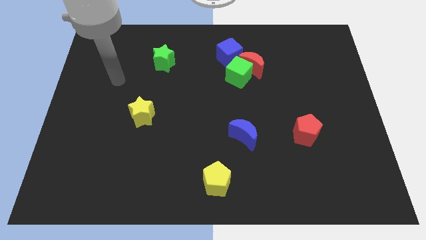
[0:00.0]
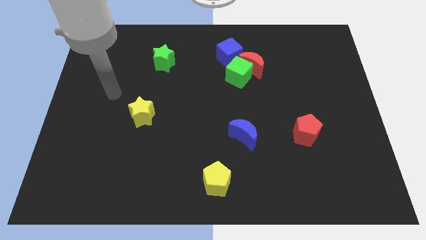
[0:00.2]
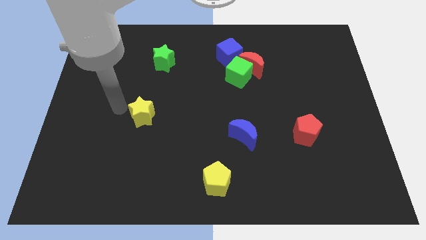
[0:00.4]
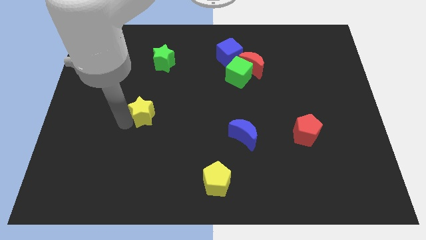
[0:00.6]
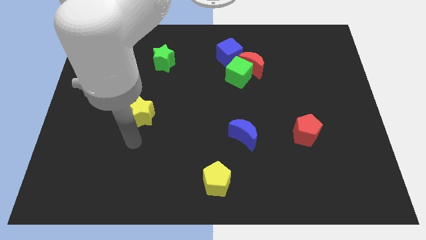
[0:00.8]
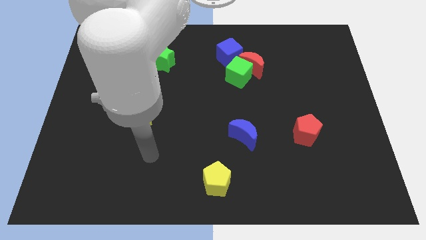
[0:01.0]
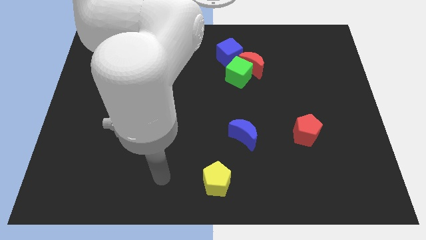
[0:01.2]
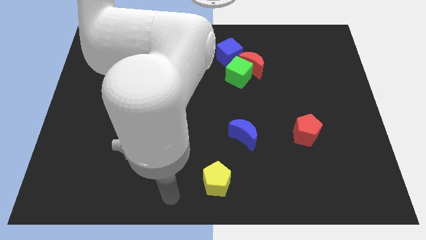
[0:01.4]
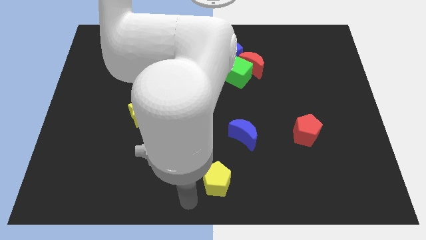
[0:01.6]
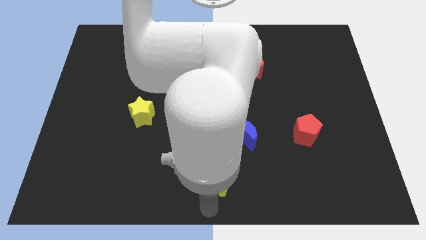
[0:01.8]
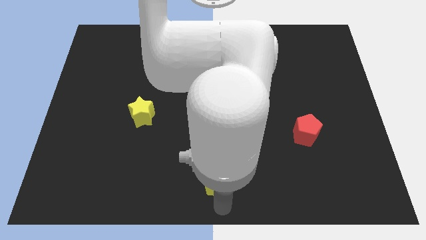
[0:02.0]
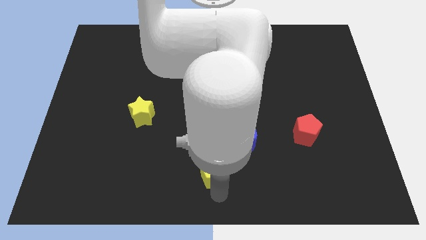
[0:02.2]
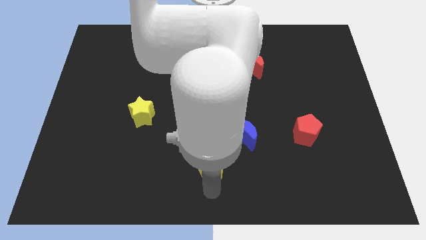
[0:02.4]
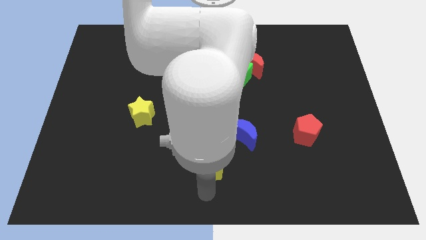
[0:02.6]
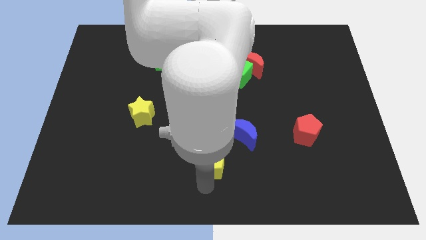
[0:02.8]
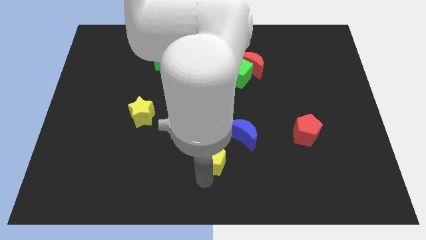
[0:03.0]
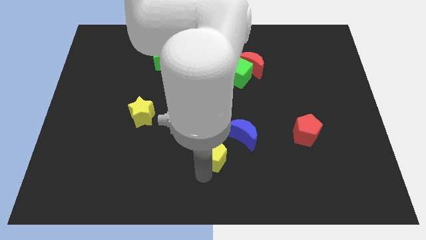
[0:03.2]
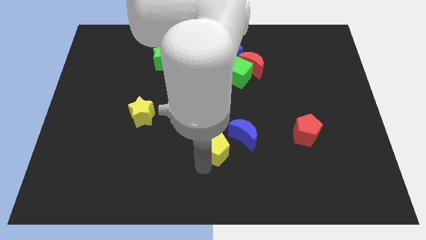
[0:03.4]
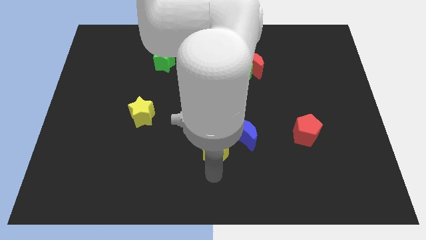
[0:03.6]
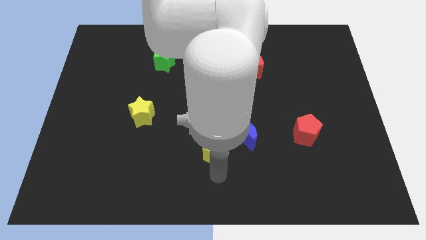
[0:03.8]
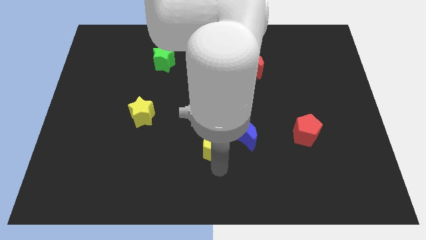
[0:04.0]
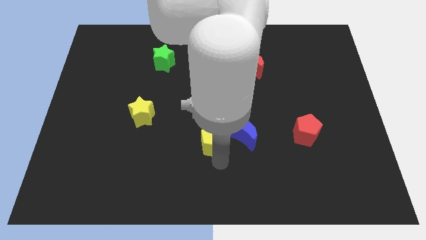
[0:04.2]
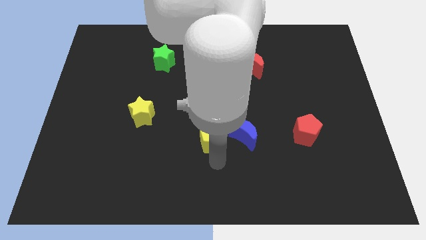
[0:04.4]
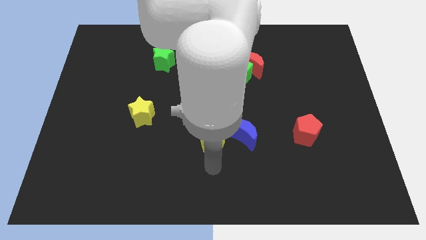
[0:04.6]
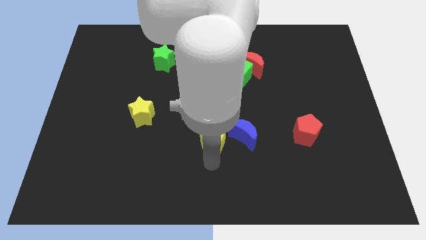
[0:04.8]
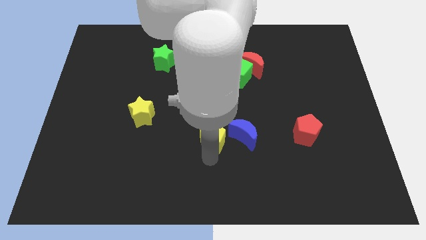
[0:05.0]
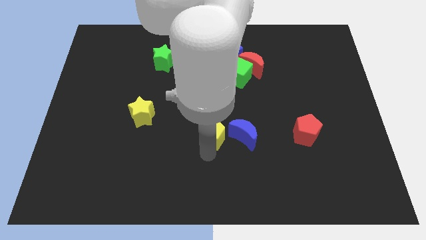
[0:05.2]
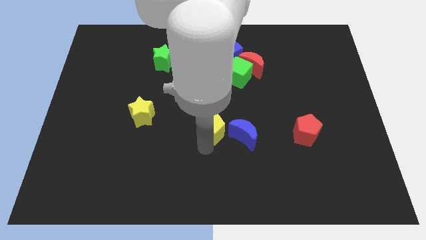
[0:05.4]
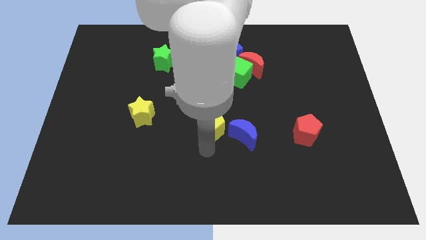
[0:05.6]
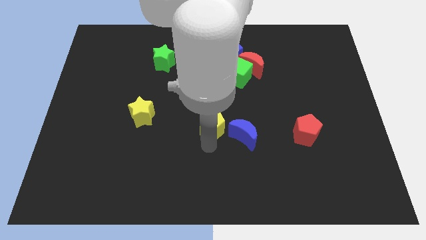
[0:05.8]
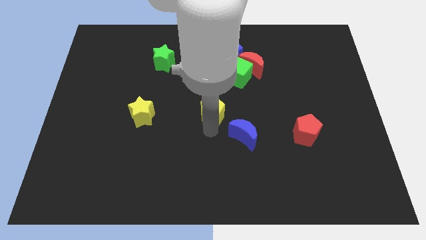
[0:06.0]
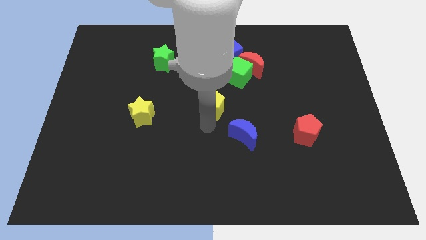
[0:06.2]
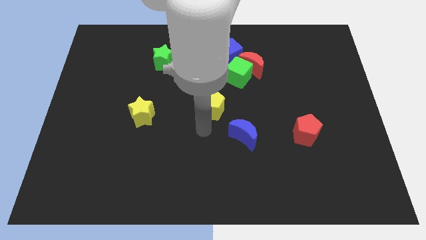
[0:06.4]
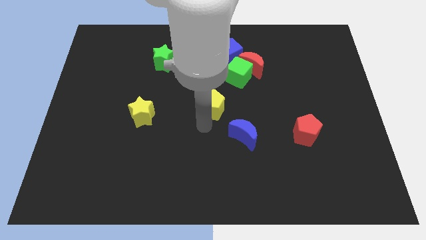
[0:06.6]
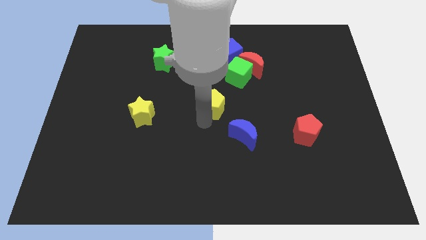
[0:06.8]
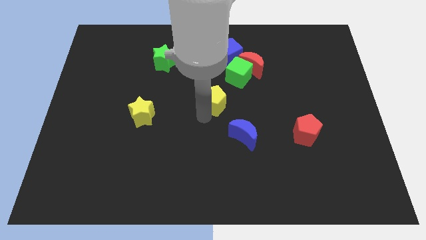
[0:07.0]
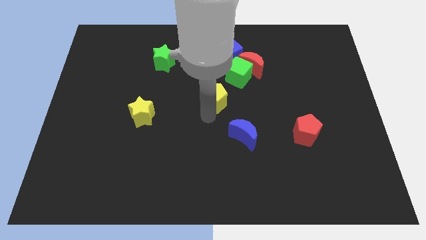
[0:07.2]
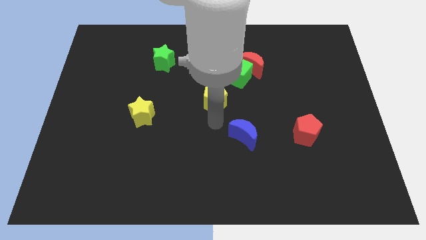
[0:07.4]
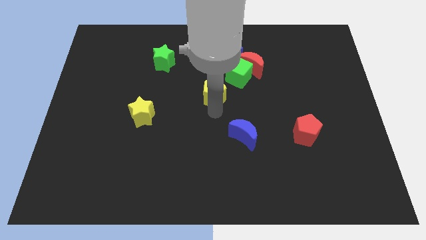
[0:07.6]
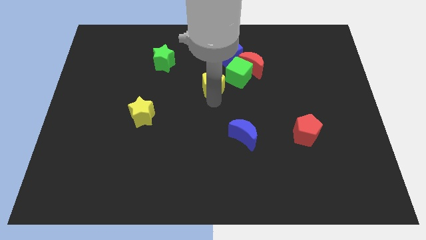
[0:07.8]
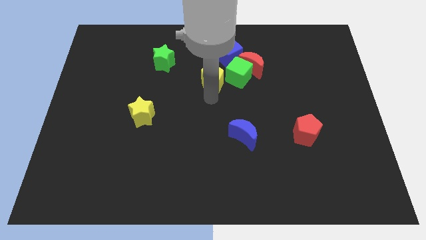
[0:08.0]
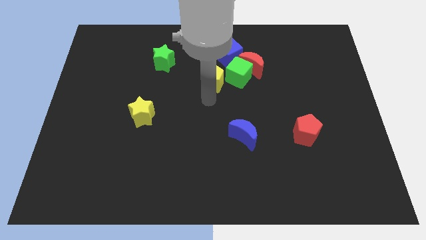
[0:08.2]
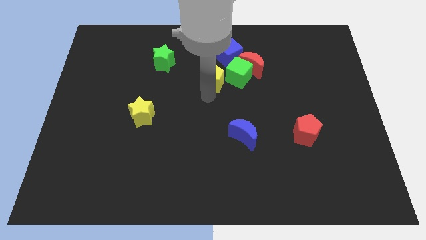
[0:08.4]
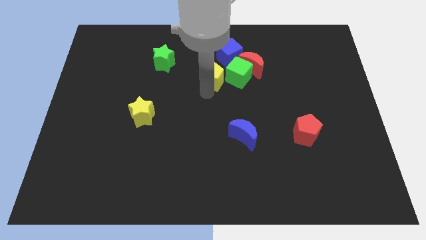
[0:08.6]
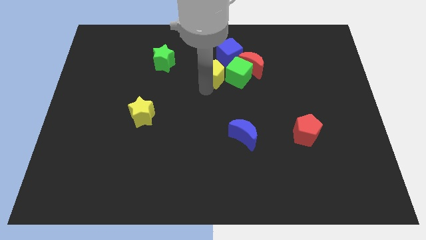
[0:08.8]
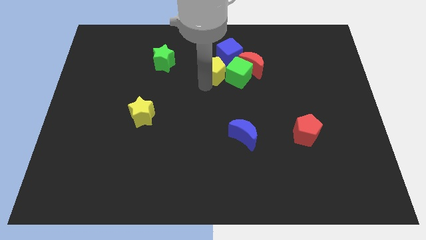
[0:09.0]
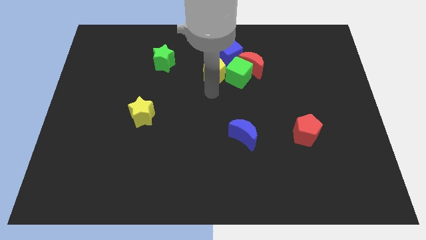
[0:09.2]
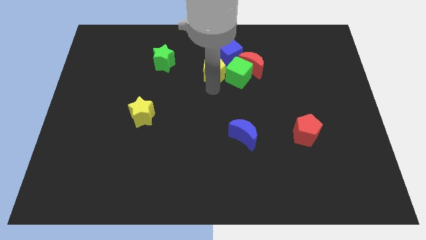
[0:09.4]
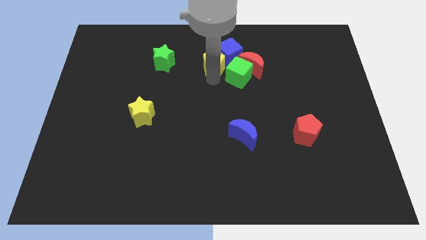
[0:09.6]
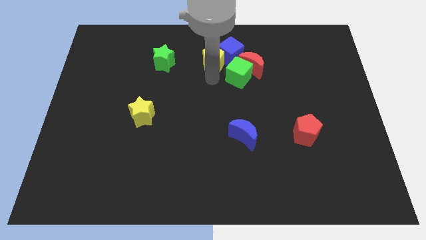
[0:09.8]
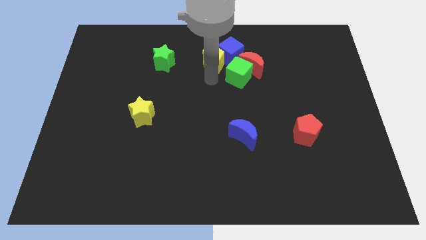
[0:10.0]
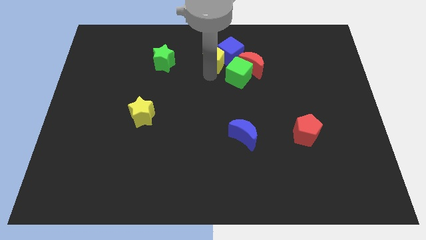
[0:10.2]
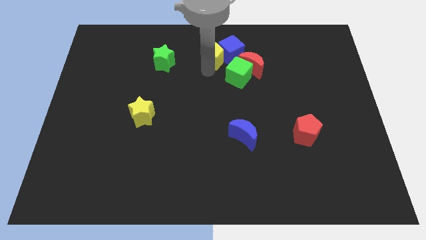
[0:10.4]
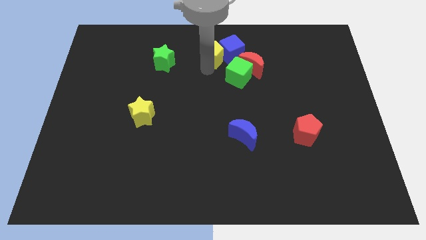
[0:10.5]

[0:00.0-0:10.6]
move the yellow pentagon to the towards your base
